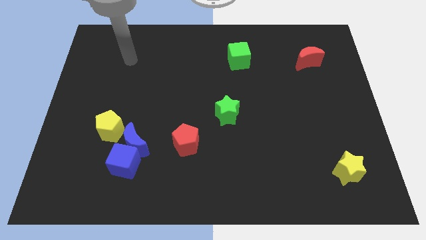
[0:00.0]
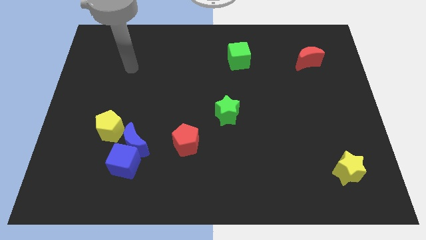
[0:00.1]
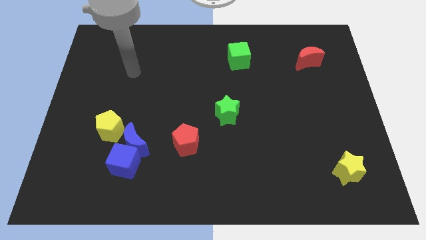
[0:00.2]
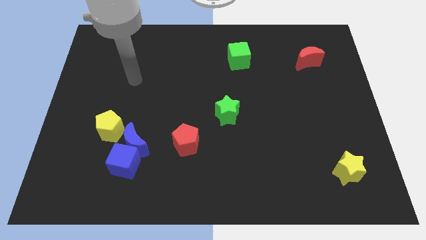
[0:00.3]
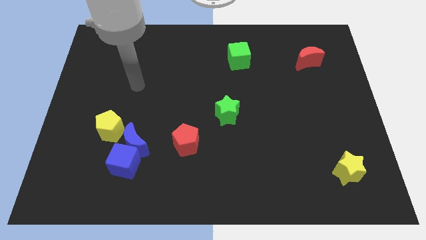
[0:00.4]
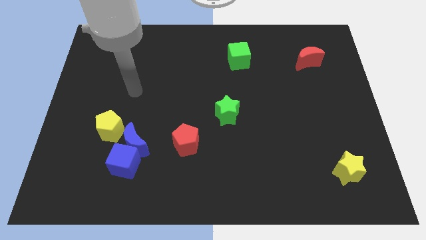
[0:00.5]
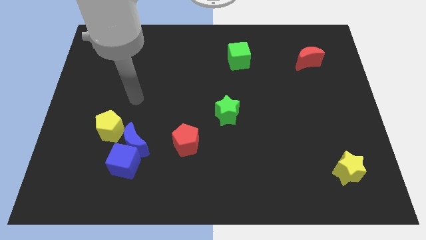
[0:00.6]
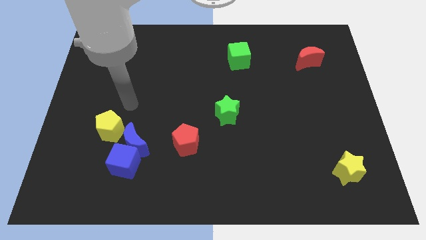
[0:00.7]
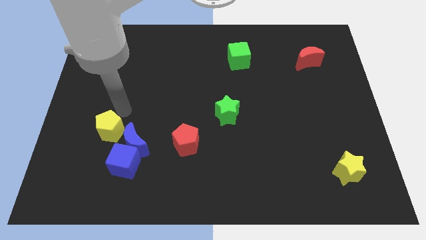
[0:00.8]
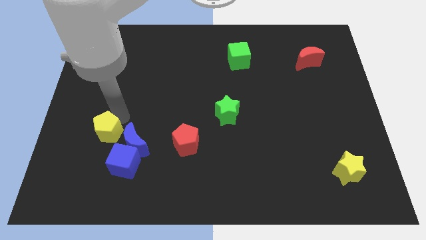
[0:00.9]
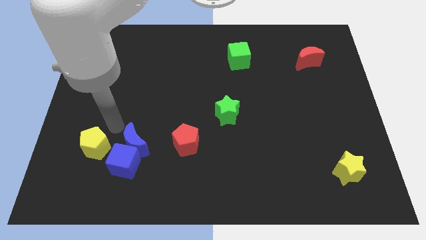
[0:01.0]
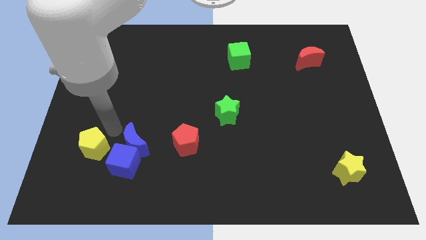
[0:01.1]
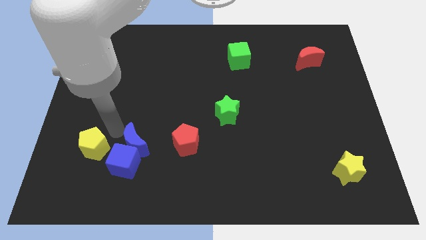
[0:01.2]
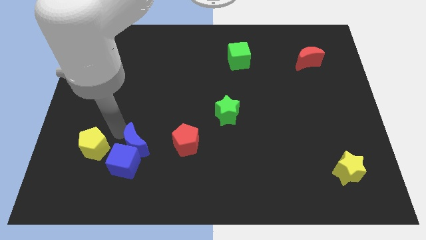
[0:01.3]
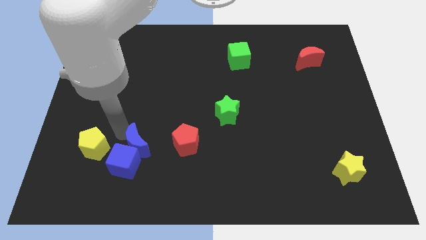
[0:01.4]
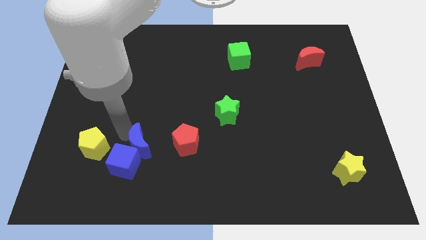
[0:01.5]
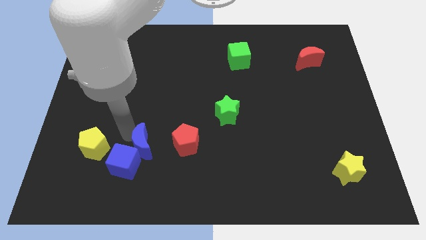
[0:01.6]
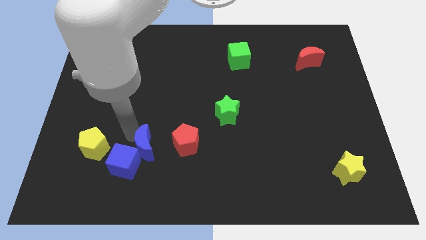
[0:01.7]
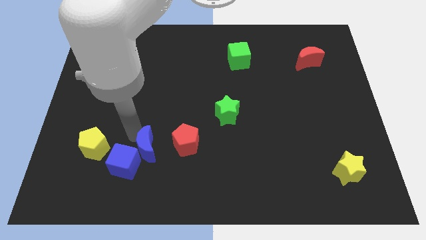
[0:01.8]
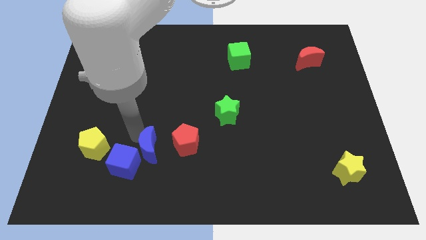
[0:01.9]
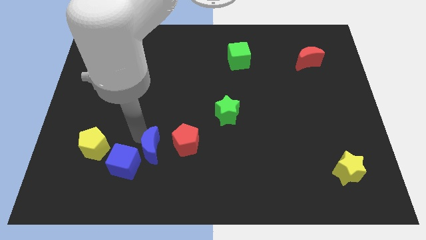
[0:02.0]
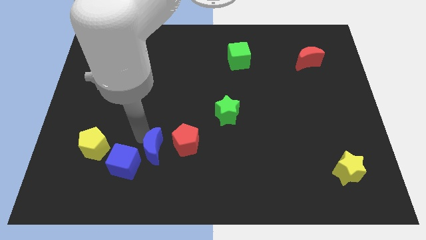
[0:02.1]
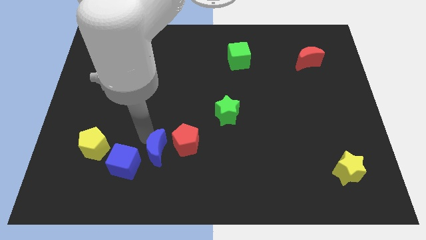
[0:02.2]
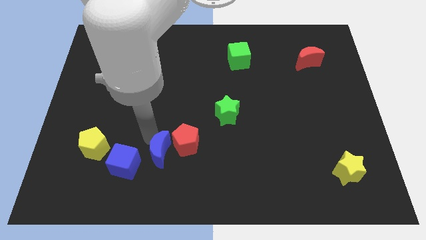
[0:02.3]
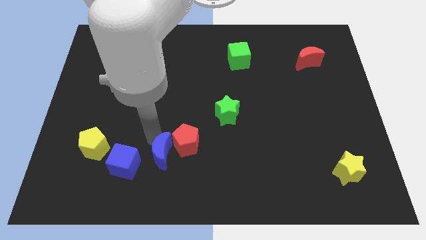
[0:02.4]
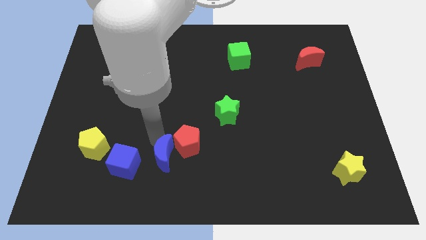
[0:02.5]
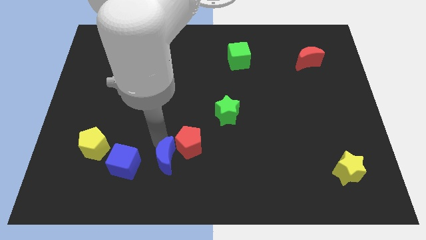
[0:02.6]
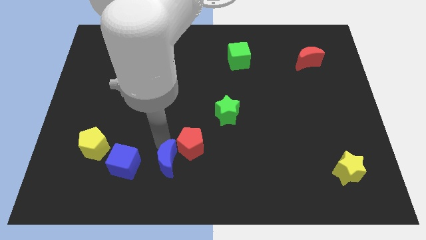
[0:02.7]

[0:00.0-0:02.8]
slide the blue moon a little bit to the right

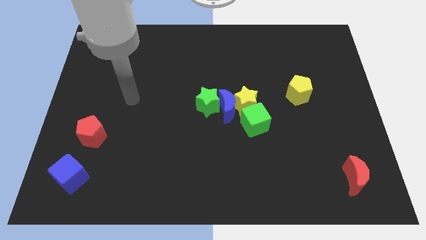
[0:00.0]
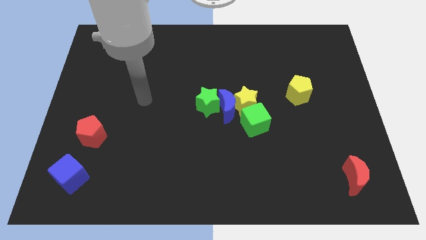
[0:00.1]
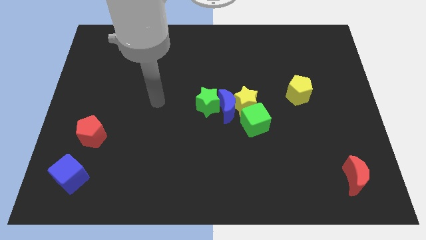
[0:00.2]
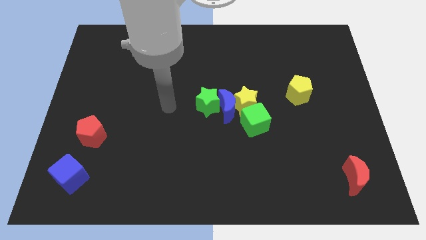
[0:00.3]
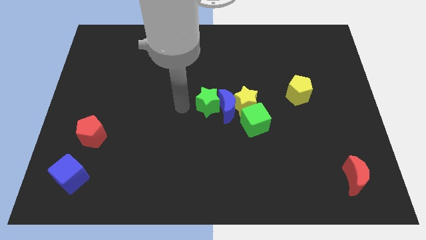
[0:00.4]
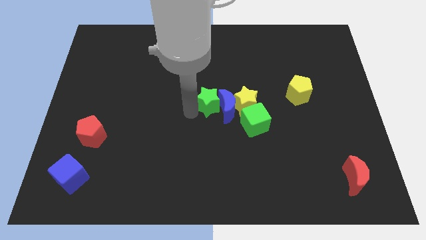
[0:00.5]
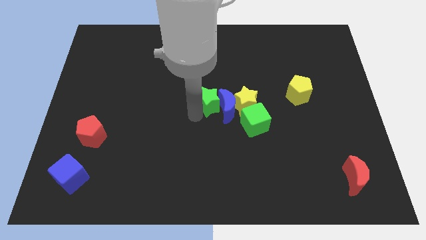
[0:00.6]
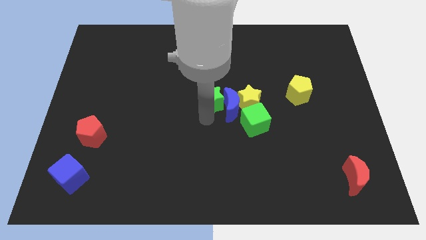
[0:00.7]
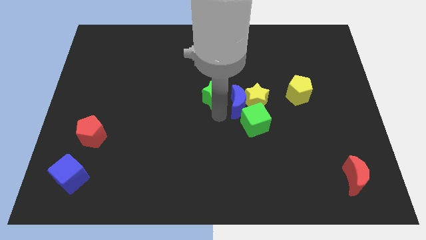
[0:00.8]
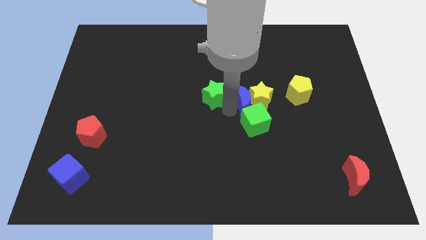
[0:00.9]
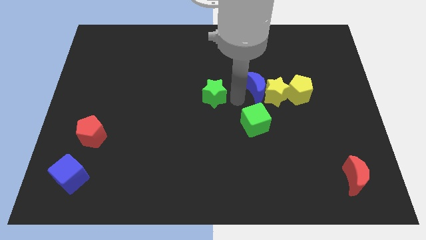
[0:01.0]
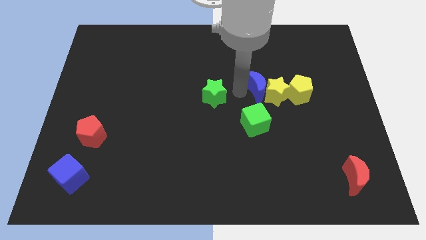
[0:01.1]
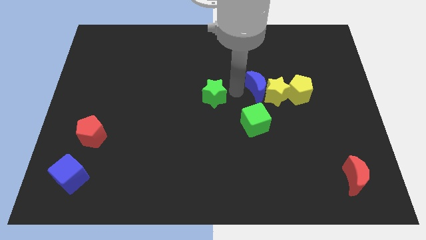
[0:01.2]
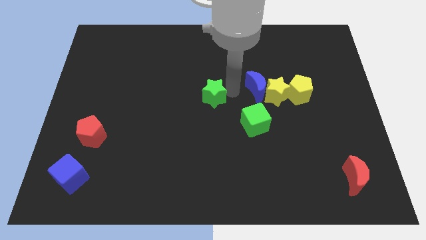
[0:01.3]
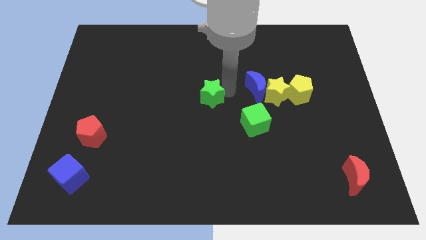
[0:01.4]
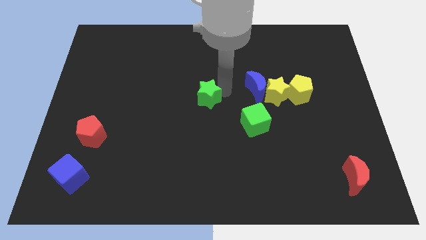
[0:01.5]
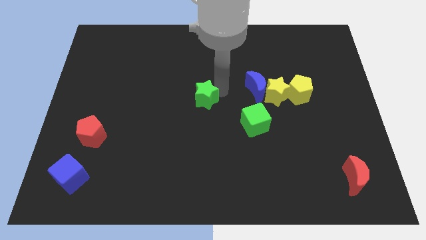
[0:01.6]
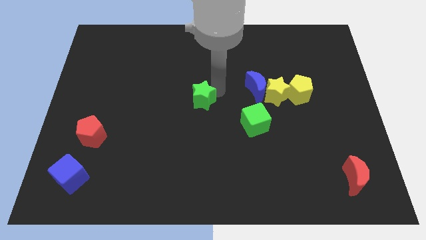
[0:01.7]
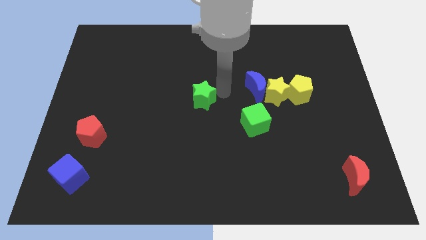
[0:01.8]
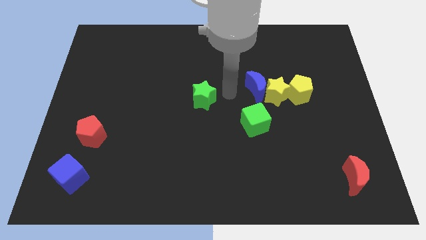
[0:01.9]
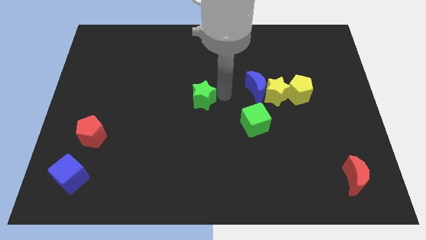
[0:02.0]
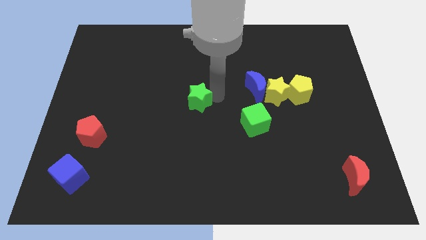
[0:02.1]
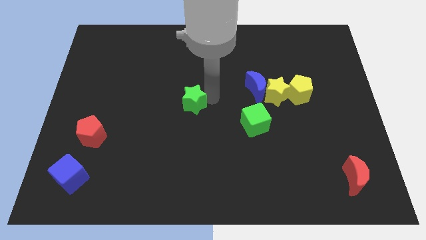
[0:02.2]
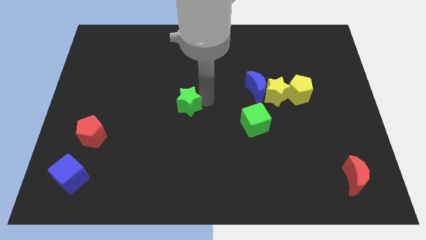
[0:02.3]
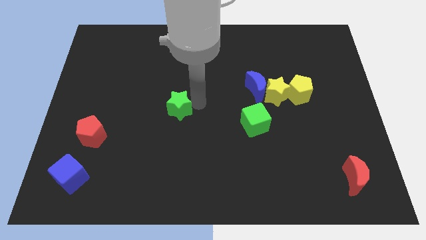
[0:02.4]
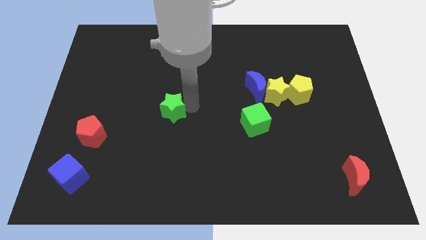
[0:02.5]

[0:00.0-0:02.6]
slightly push the green star left

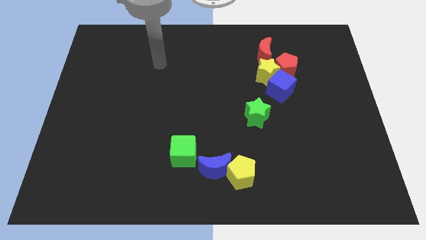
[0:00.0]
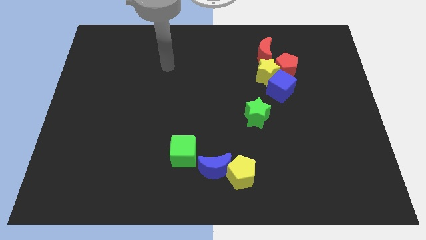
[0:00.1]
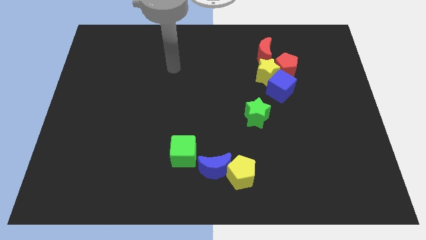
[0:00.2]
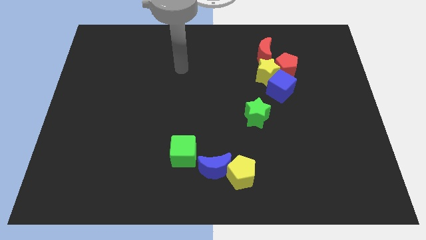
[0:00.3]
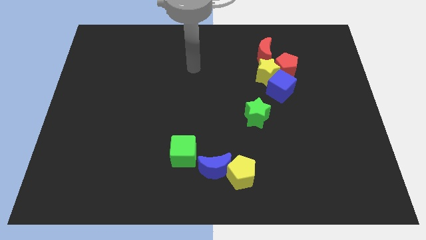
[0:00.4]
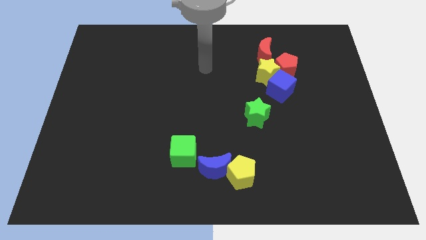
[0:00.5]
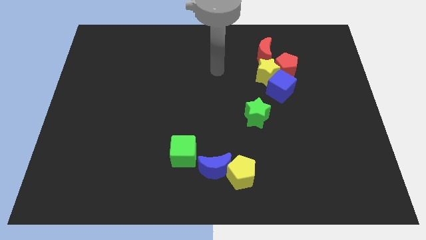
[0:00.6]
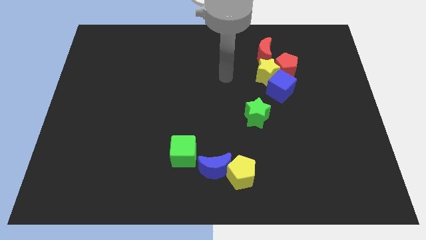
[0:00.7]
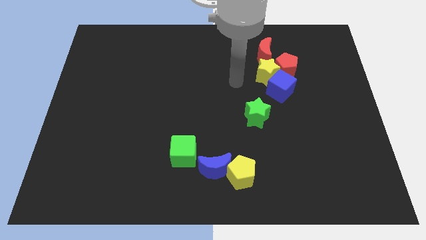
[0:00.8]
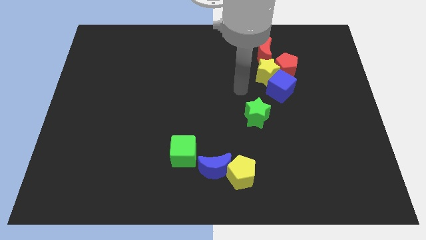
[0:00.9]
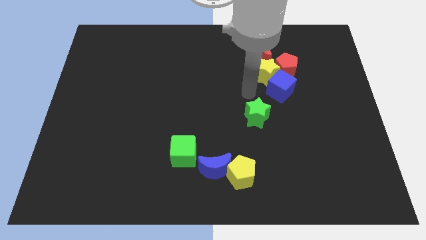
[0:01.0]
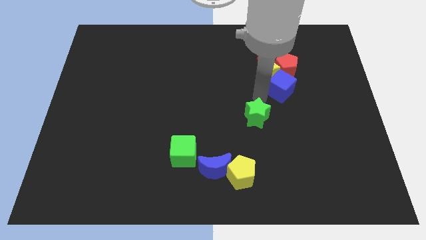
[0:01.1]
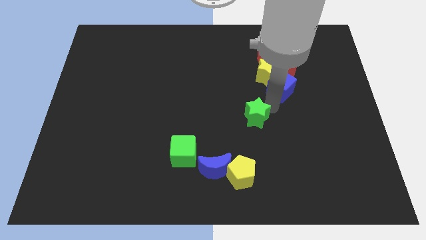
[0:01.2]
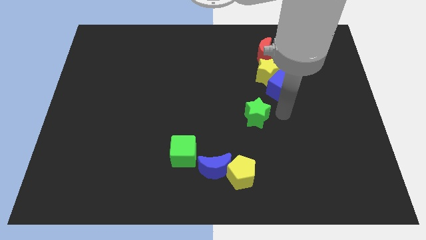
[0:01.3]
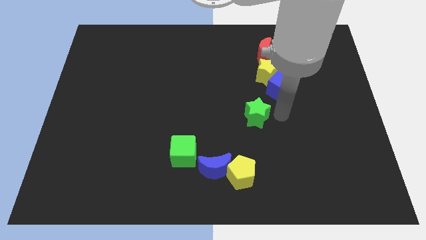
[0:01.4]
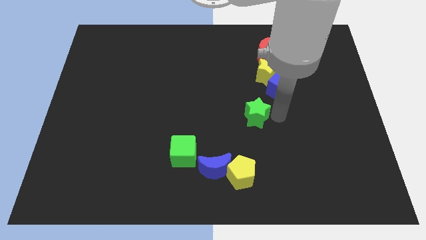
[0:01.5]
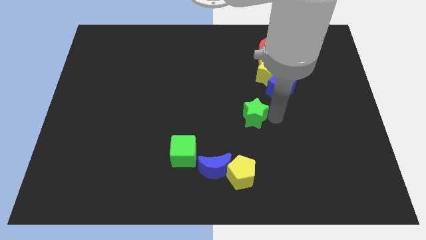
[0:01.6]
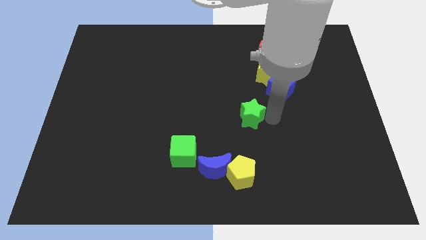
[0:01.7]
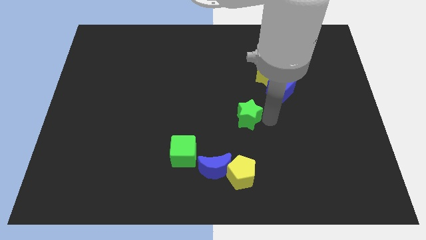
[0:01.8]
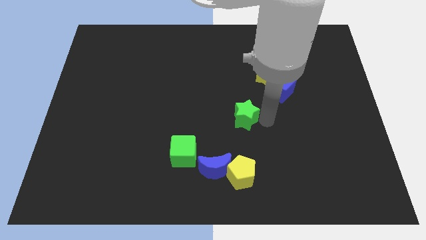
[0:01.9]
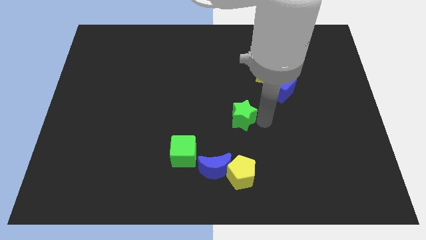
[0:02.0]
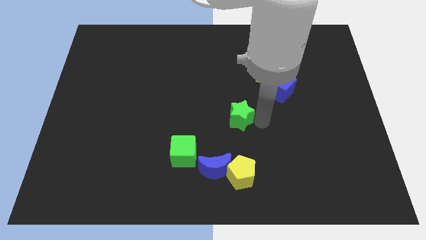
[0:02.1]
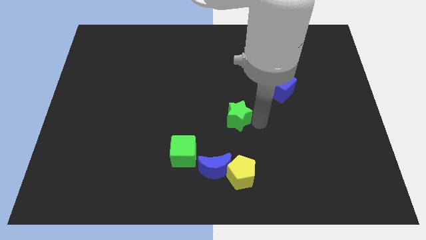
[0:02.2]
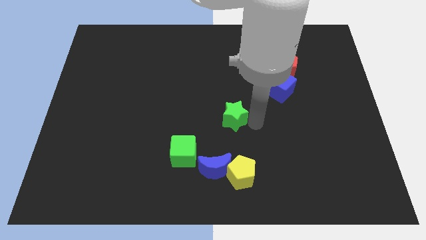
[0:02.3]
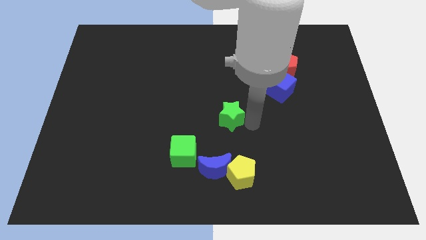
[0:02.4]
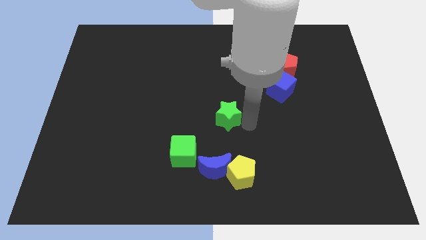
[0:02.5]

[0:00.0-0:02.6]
slide the green star left a little
